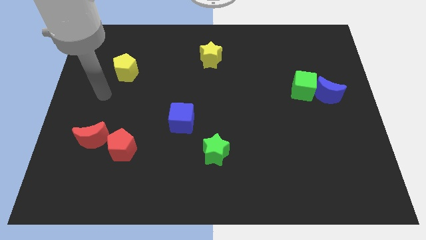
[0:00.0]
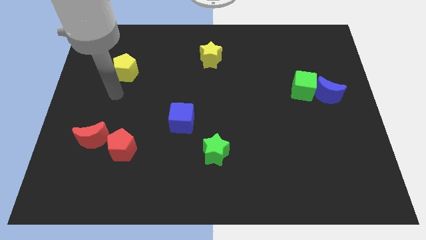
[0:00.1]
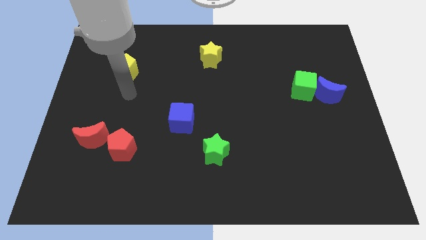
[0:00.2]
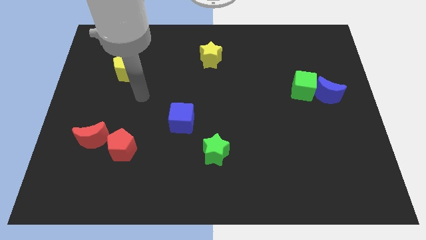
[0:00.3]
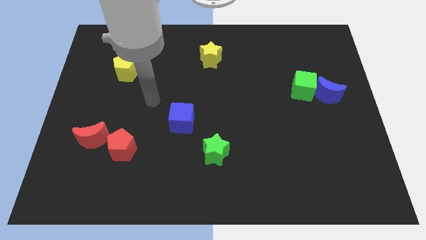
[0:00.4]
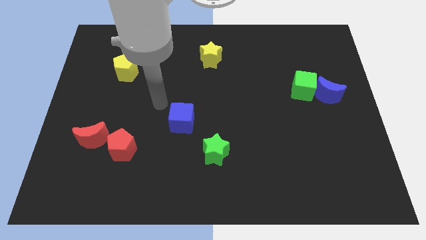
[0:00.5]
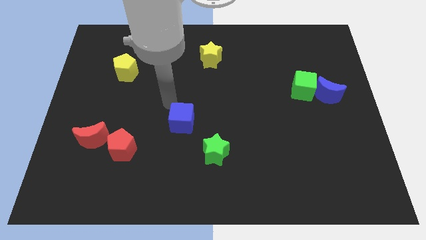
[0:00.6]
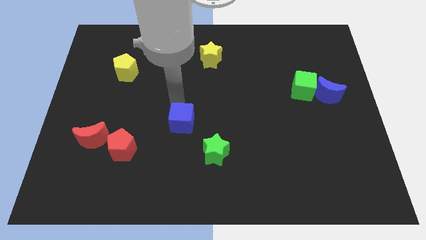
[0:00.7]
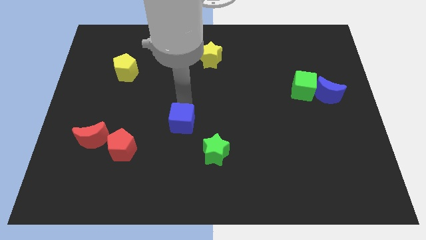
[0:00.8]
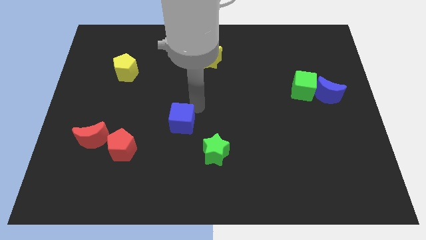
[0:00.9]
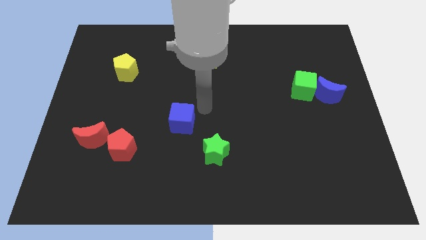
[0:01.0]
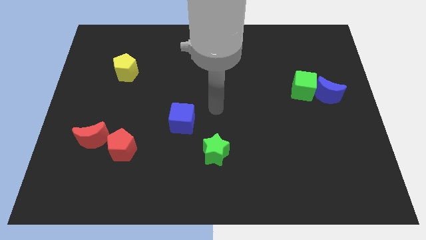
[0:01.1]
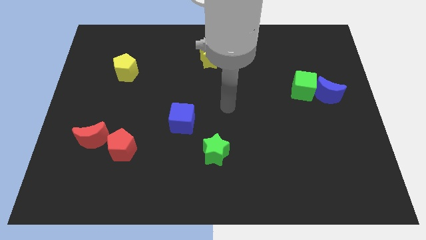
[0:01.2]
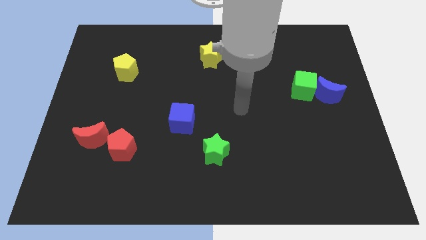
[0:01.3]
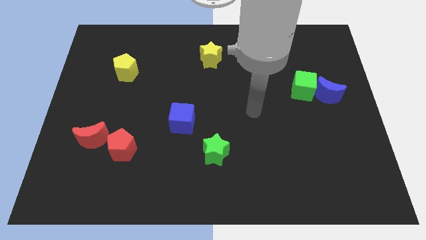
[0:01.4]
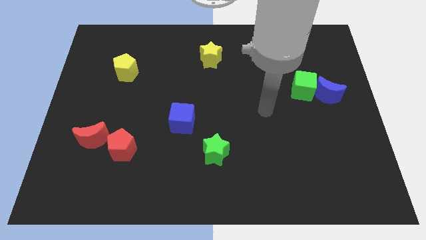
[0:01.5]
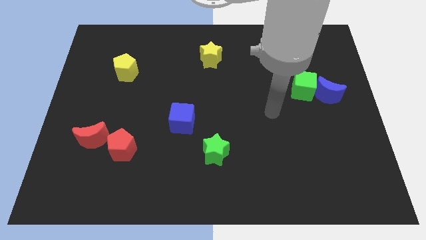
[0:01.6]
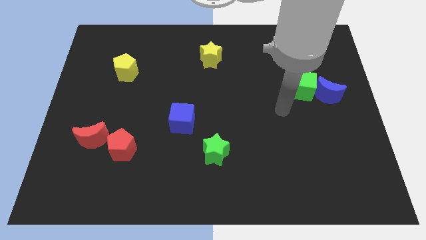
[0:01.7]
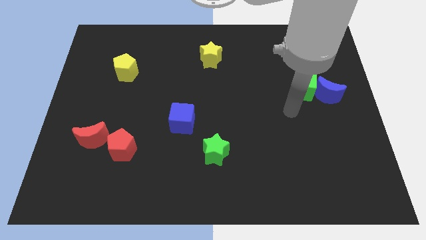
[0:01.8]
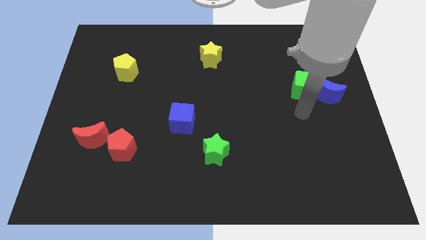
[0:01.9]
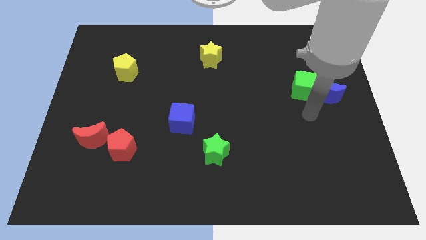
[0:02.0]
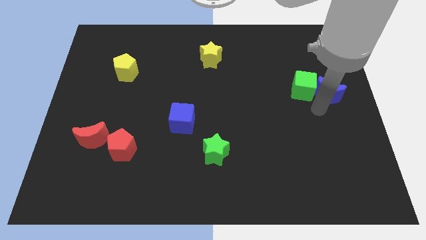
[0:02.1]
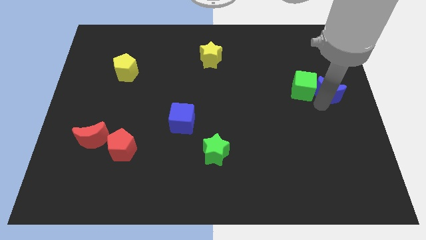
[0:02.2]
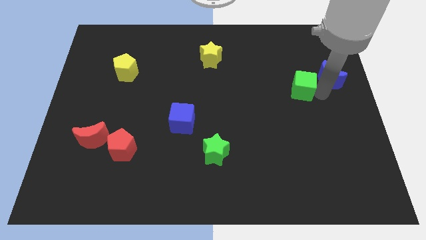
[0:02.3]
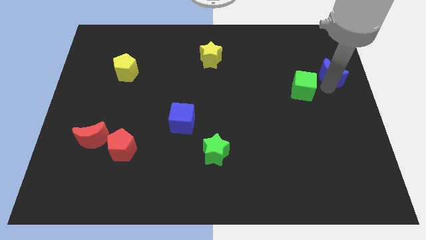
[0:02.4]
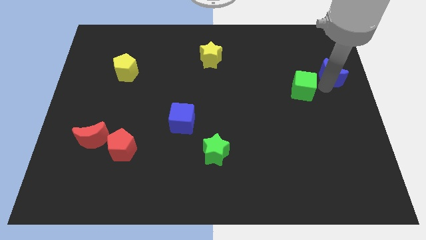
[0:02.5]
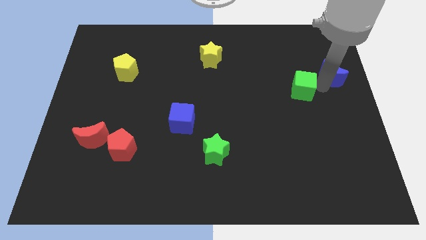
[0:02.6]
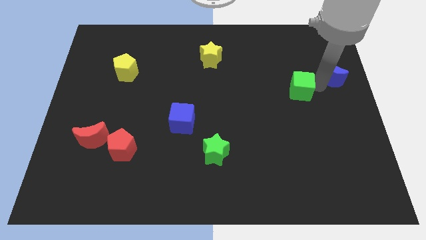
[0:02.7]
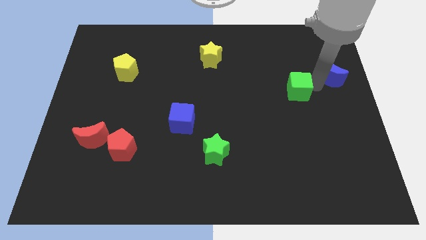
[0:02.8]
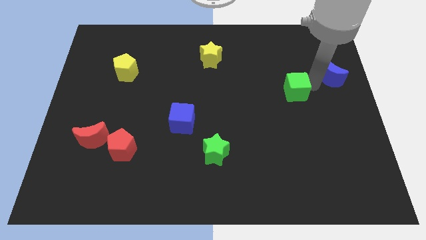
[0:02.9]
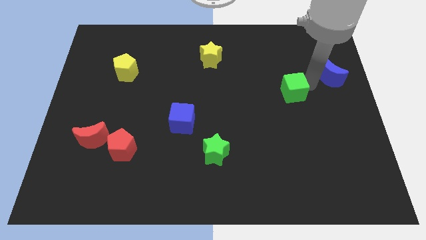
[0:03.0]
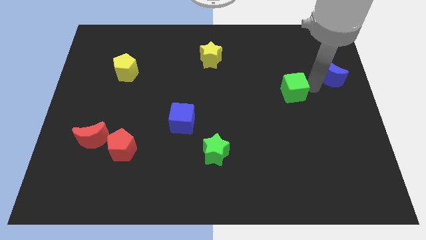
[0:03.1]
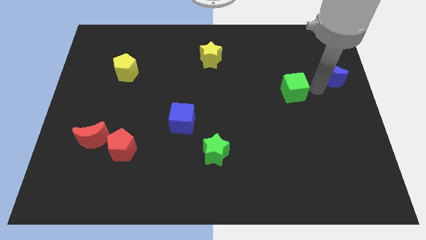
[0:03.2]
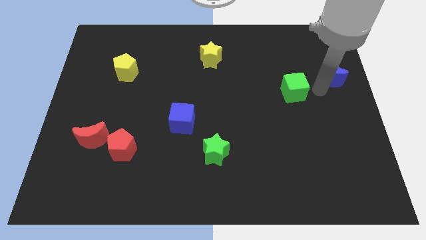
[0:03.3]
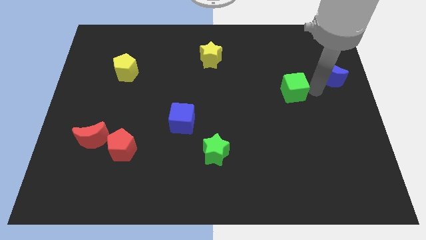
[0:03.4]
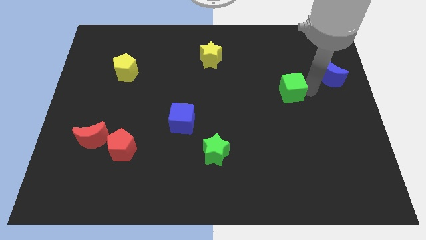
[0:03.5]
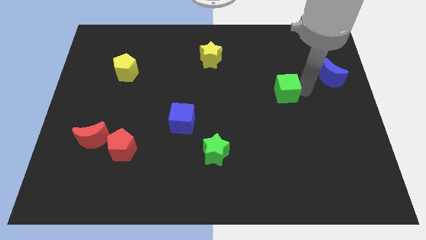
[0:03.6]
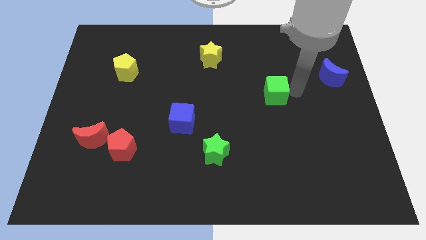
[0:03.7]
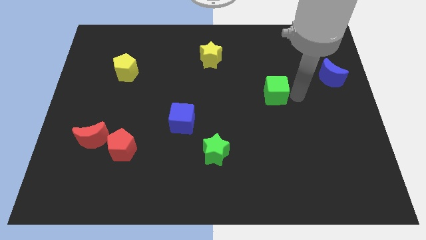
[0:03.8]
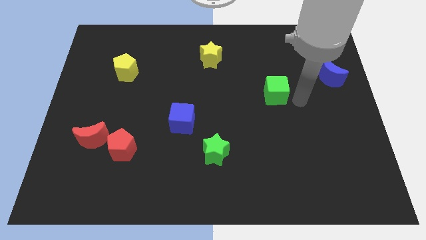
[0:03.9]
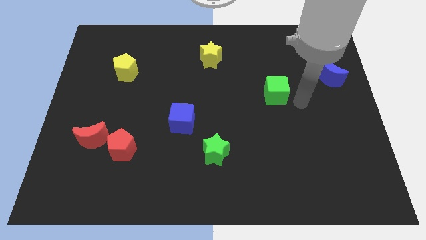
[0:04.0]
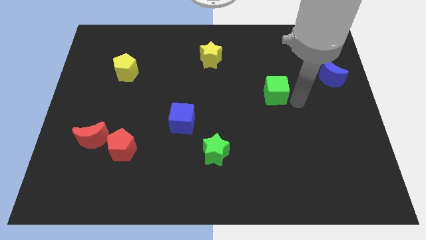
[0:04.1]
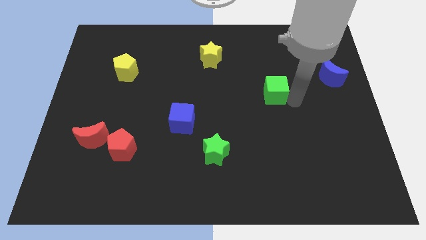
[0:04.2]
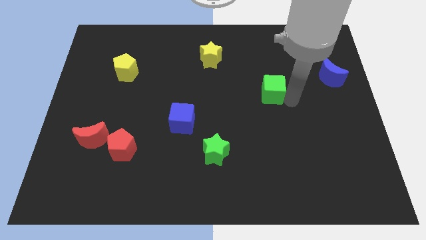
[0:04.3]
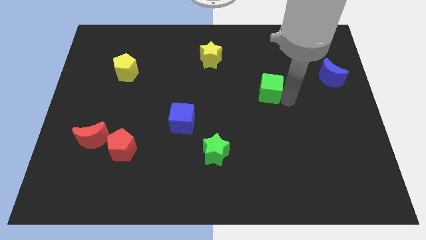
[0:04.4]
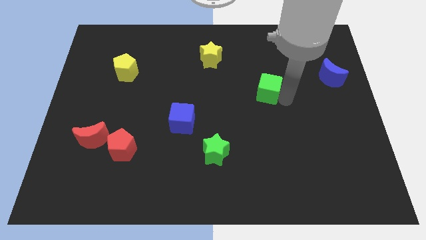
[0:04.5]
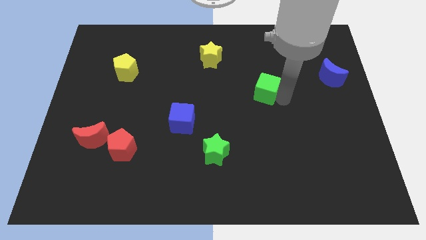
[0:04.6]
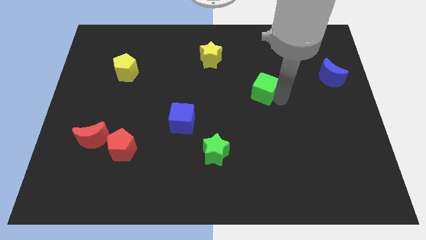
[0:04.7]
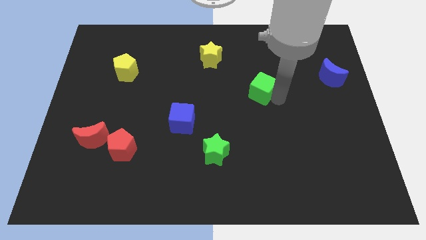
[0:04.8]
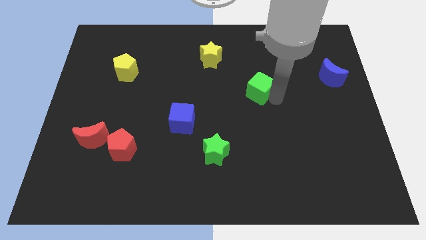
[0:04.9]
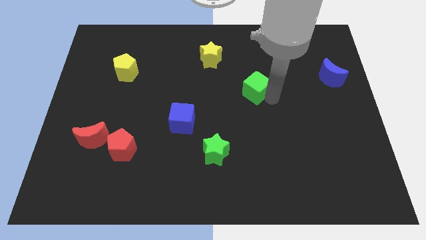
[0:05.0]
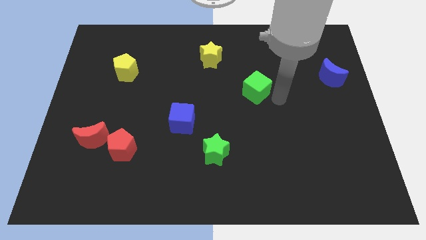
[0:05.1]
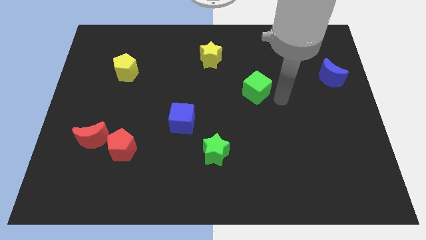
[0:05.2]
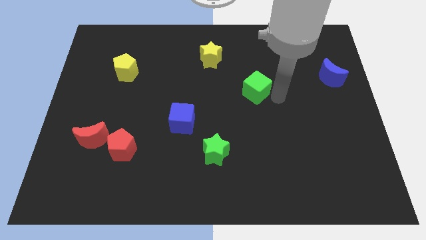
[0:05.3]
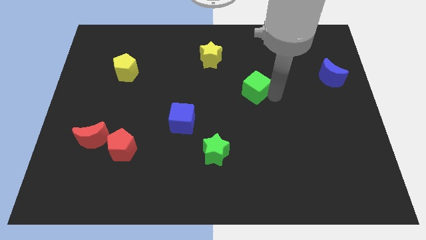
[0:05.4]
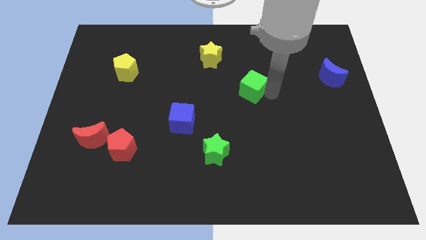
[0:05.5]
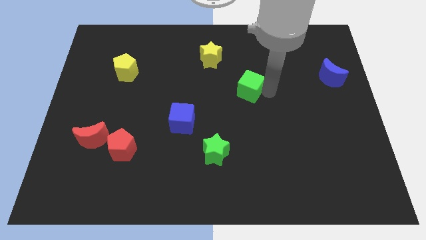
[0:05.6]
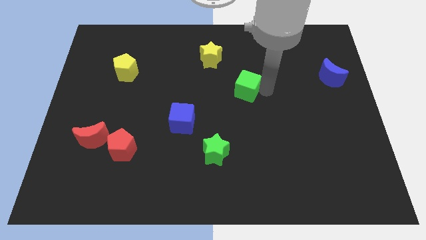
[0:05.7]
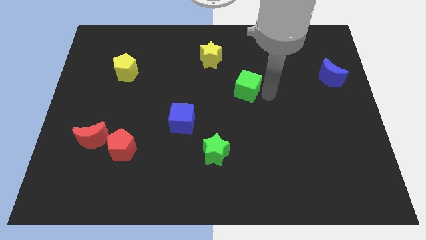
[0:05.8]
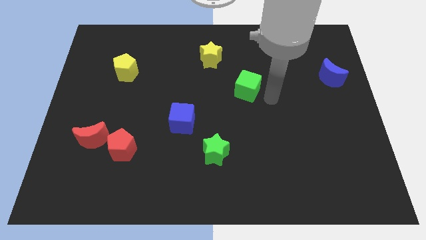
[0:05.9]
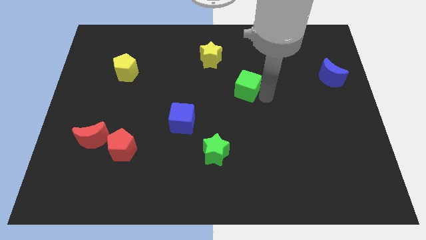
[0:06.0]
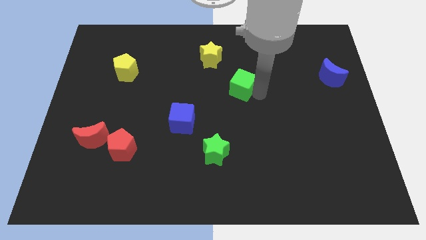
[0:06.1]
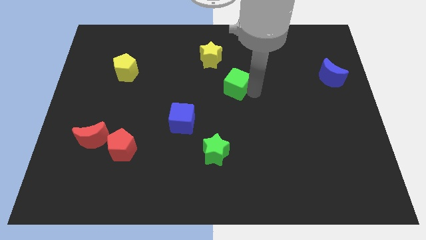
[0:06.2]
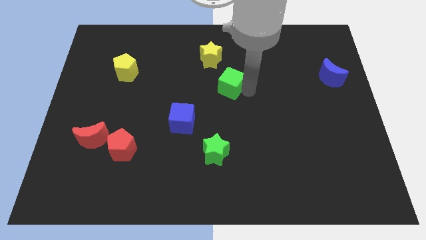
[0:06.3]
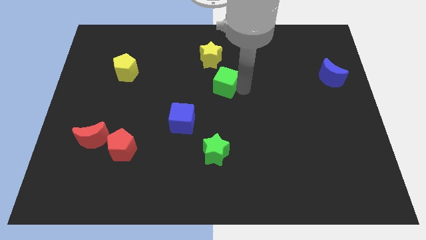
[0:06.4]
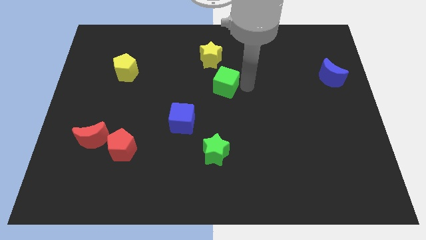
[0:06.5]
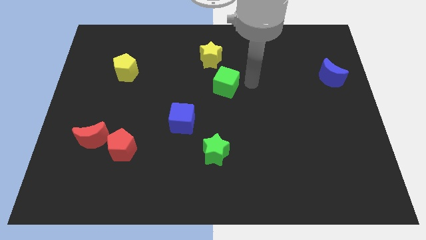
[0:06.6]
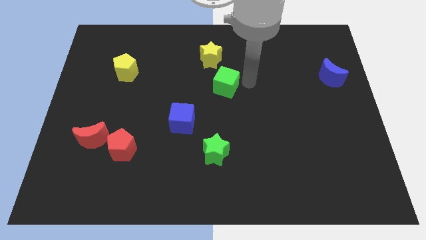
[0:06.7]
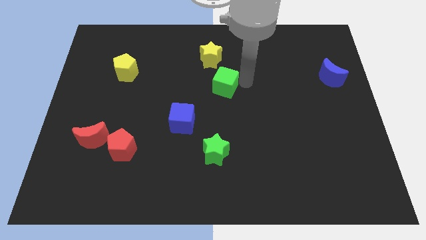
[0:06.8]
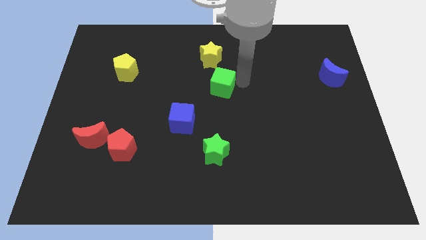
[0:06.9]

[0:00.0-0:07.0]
push the green cube left

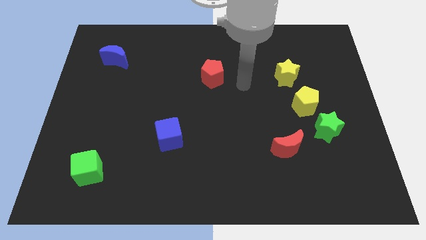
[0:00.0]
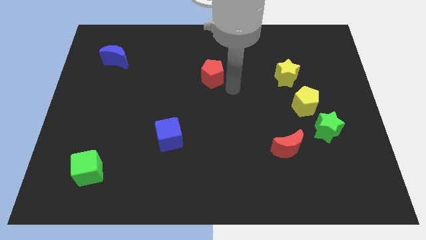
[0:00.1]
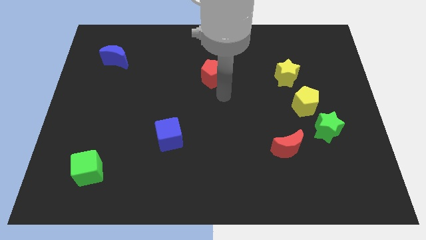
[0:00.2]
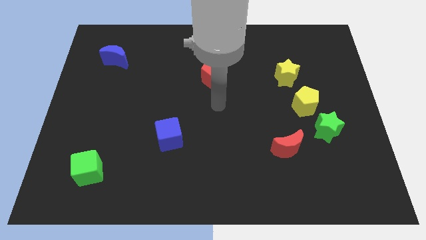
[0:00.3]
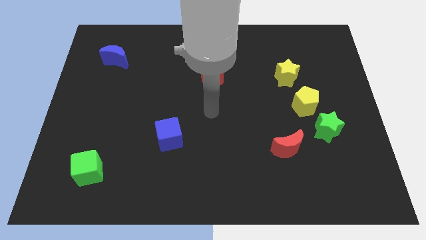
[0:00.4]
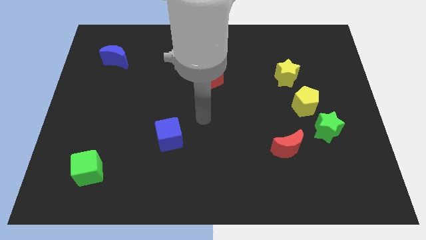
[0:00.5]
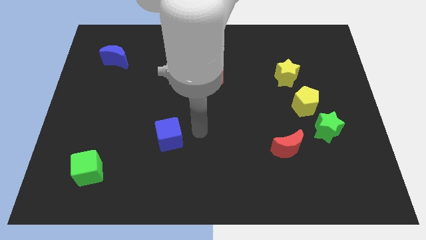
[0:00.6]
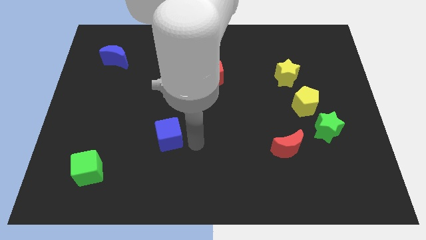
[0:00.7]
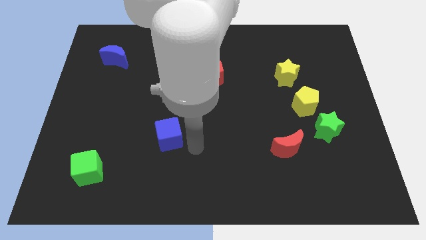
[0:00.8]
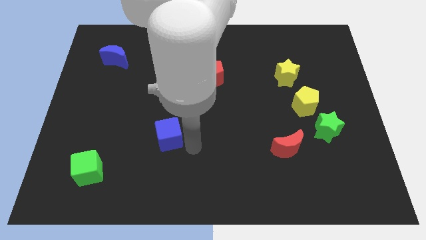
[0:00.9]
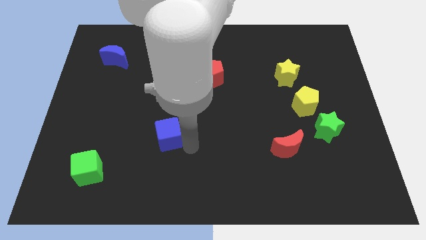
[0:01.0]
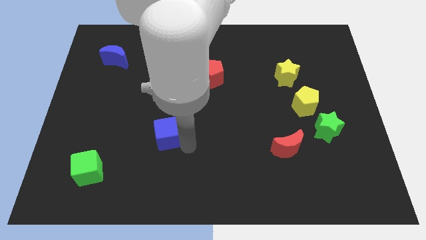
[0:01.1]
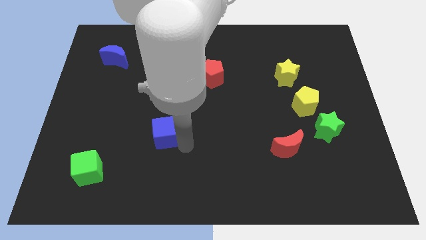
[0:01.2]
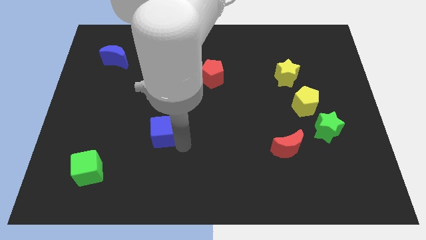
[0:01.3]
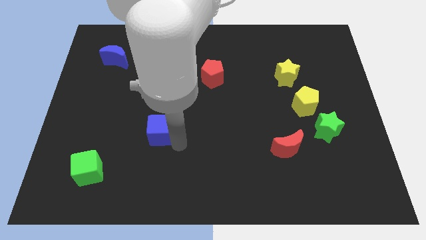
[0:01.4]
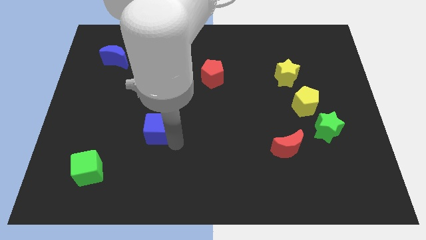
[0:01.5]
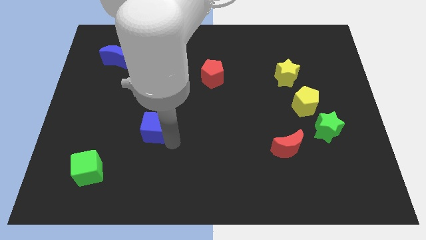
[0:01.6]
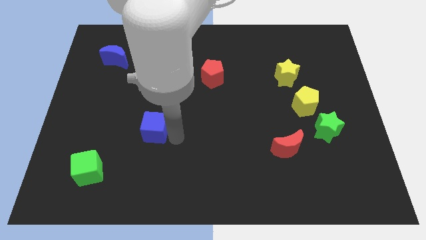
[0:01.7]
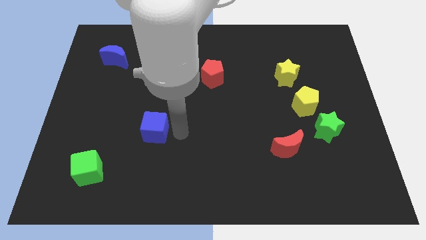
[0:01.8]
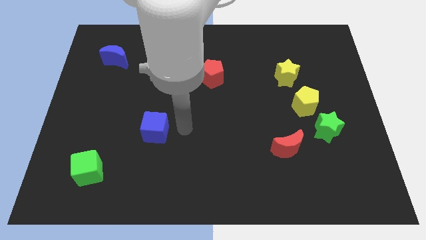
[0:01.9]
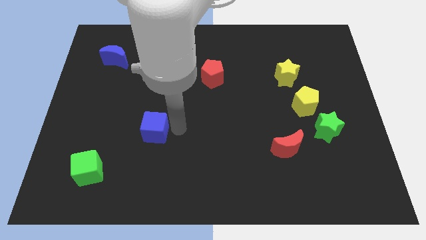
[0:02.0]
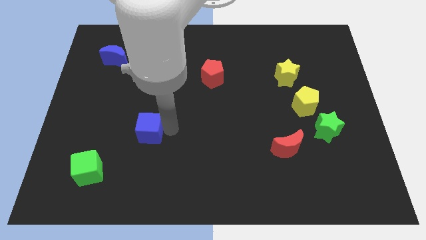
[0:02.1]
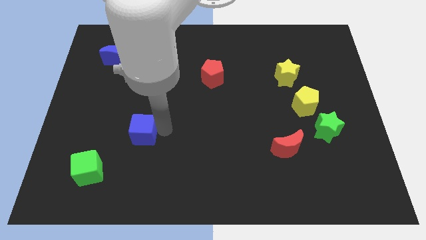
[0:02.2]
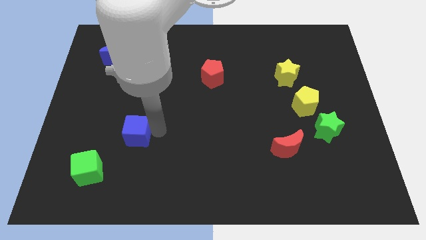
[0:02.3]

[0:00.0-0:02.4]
push the blue cube somewhat left
